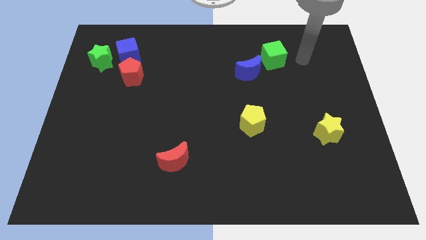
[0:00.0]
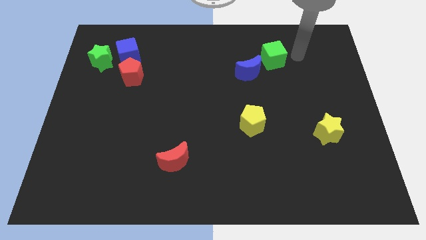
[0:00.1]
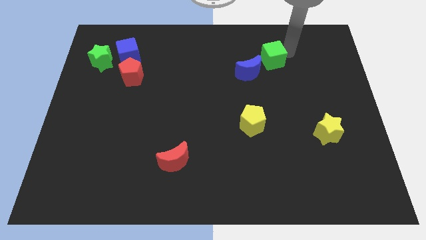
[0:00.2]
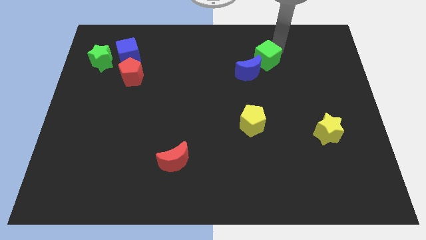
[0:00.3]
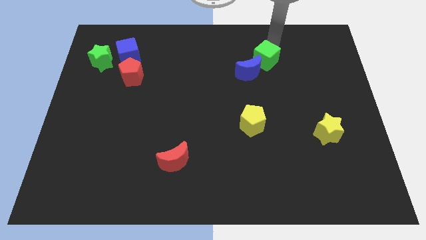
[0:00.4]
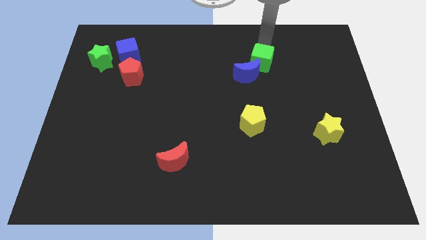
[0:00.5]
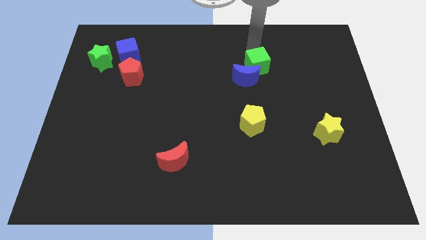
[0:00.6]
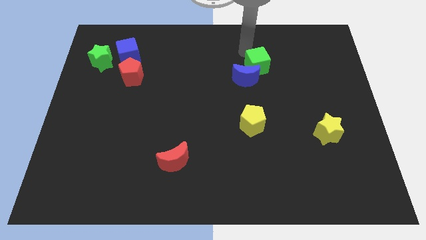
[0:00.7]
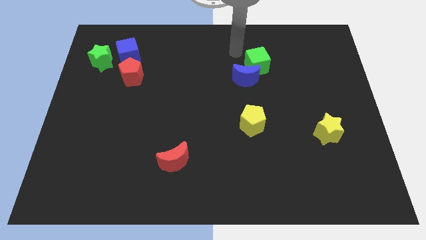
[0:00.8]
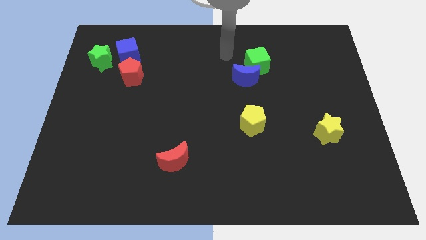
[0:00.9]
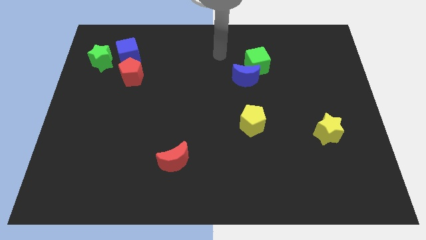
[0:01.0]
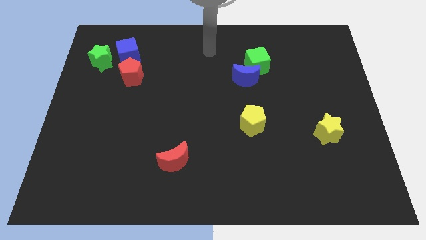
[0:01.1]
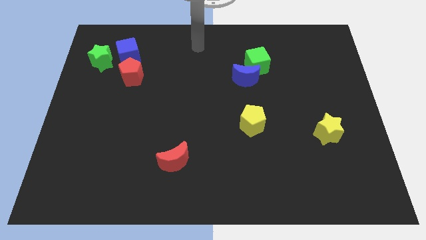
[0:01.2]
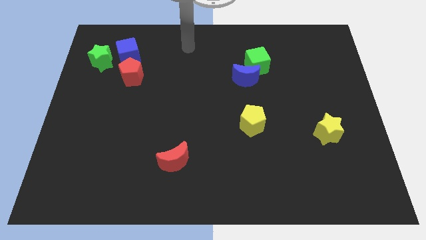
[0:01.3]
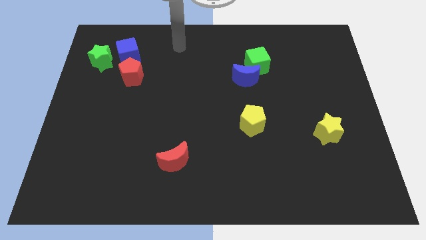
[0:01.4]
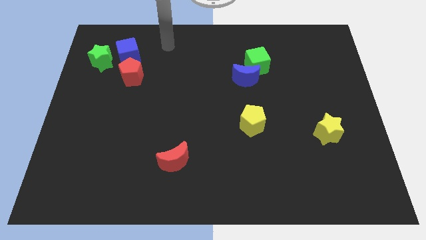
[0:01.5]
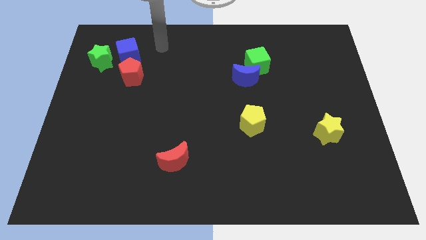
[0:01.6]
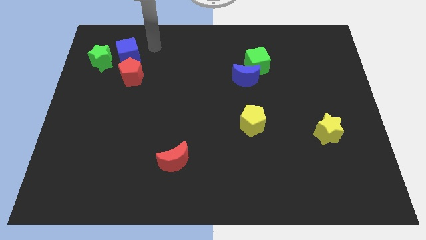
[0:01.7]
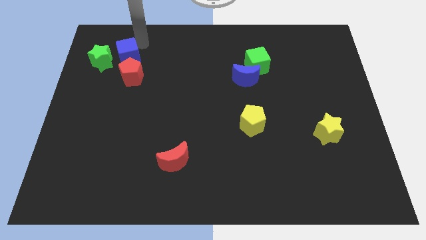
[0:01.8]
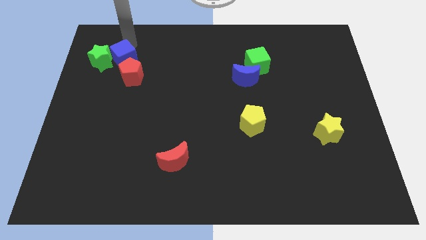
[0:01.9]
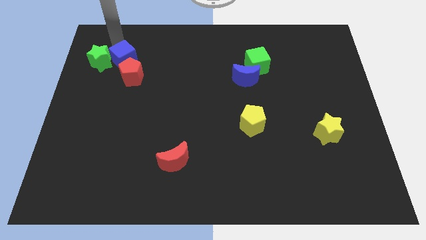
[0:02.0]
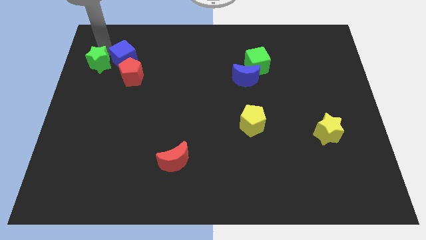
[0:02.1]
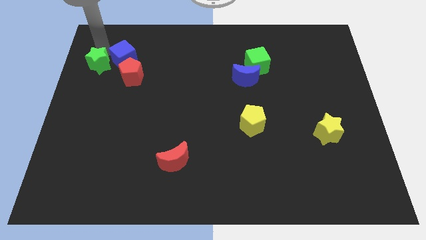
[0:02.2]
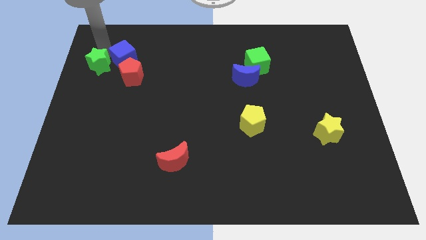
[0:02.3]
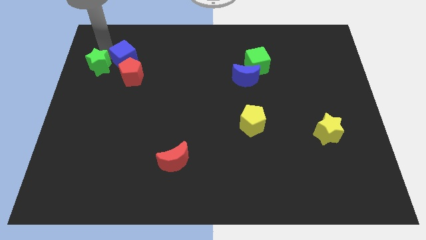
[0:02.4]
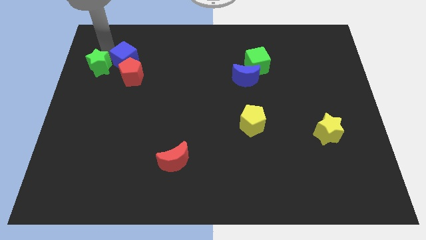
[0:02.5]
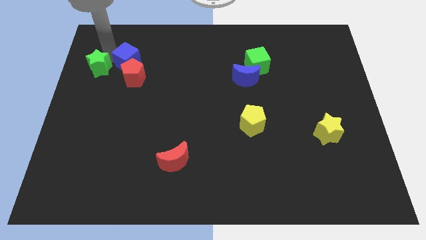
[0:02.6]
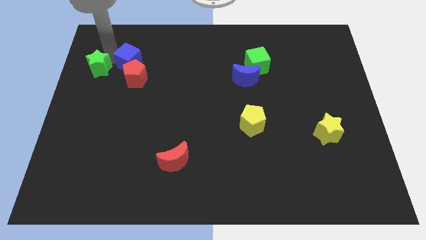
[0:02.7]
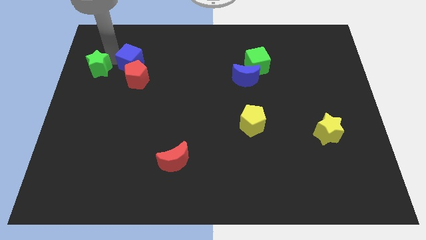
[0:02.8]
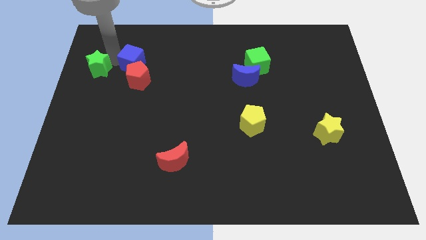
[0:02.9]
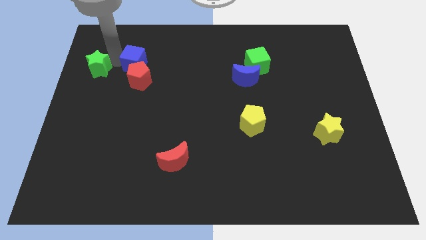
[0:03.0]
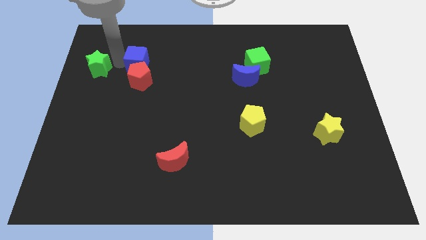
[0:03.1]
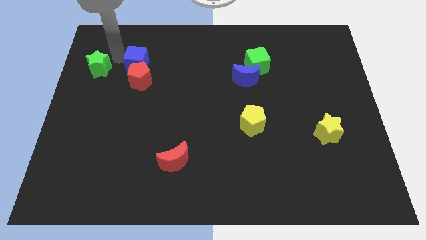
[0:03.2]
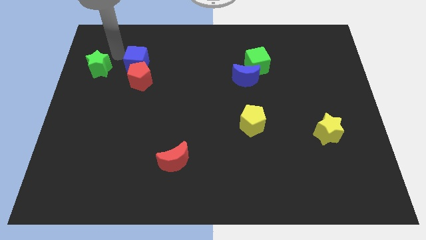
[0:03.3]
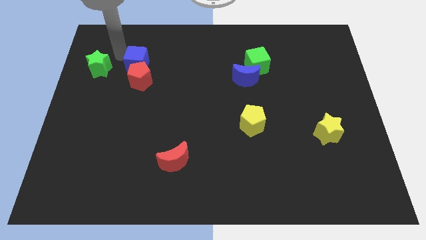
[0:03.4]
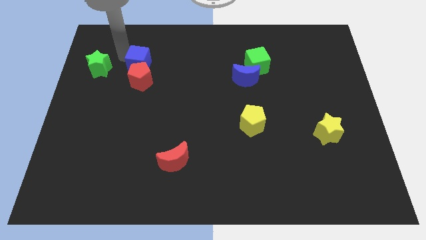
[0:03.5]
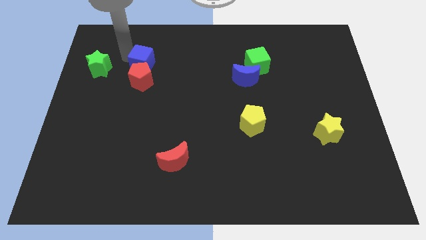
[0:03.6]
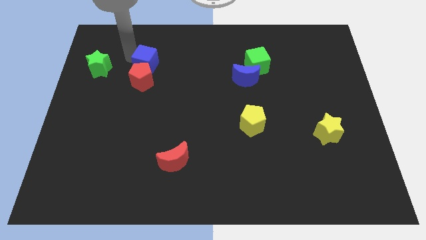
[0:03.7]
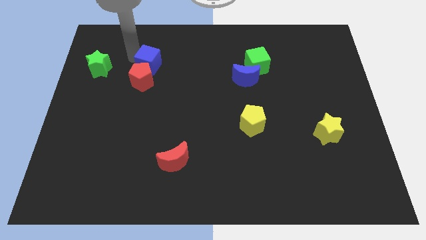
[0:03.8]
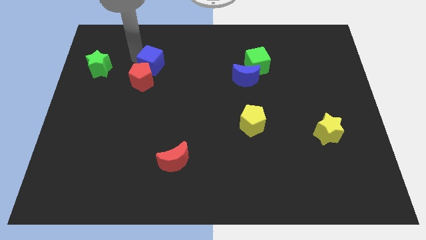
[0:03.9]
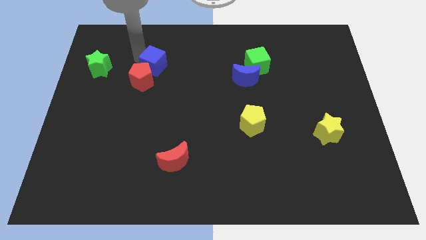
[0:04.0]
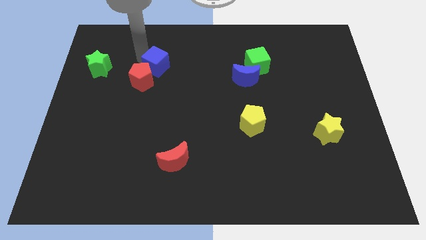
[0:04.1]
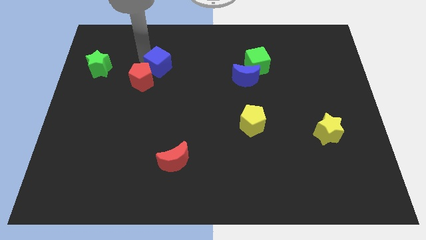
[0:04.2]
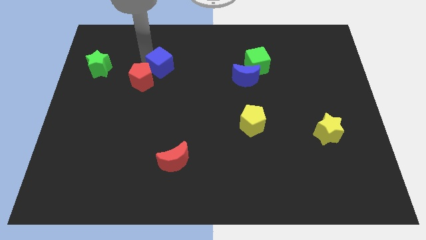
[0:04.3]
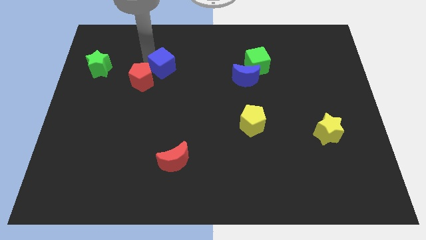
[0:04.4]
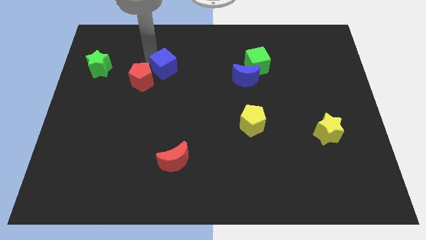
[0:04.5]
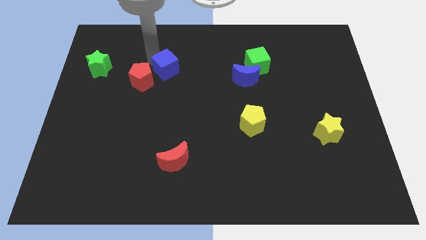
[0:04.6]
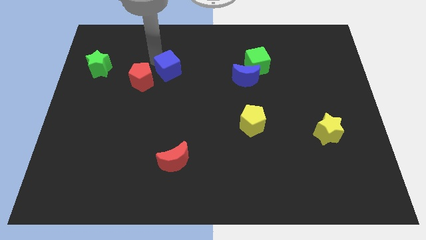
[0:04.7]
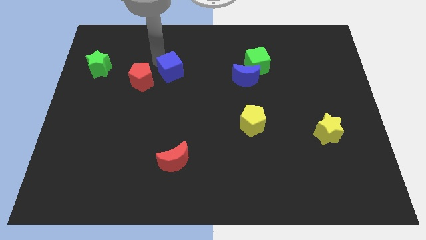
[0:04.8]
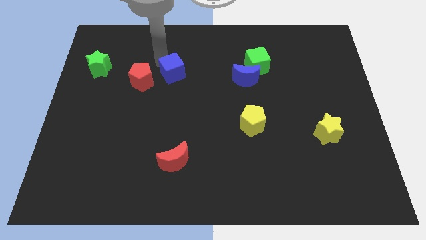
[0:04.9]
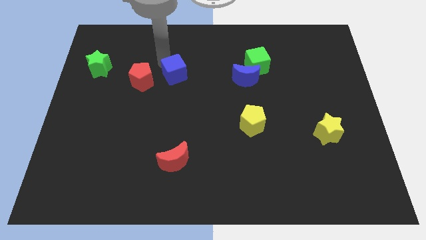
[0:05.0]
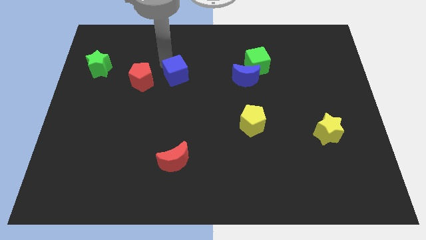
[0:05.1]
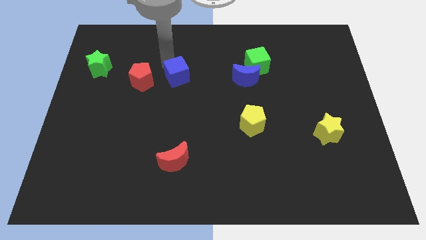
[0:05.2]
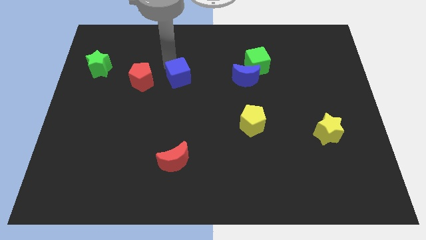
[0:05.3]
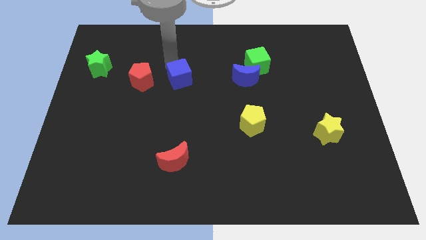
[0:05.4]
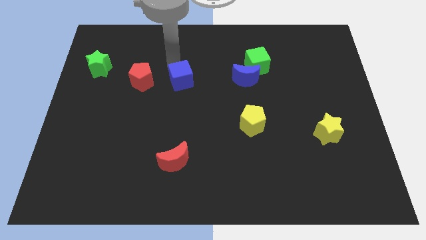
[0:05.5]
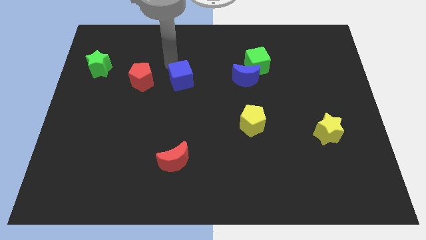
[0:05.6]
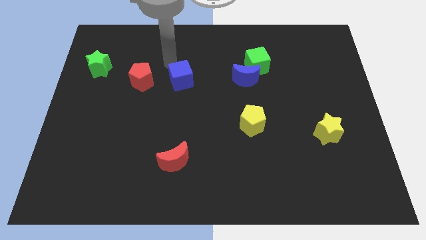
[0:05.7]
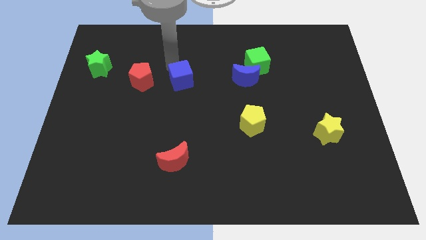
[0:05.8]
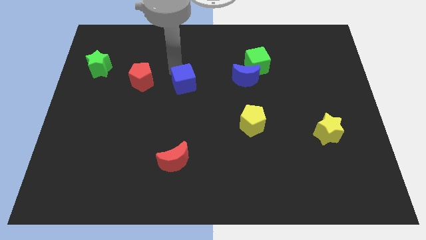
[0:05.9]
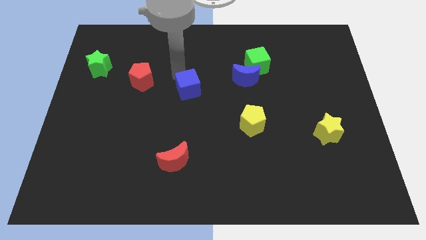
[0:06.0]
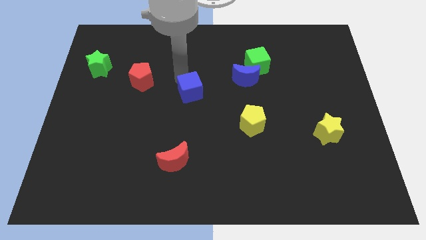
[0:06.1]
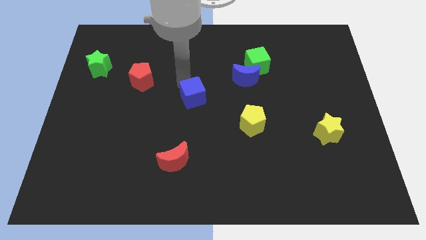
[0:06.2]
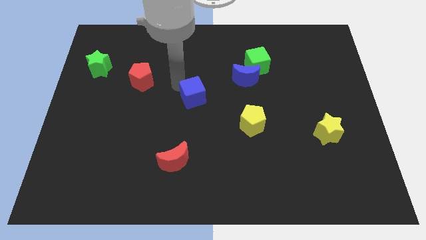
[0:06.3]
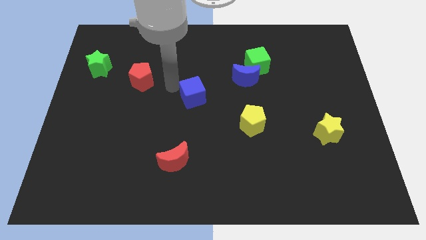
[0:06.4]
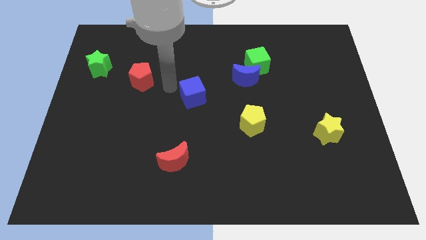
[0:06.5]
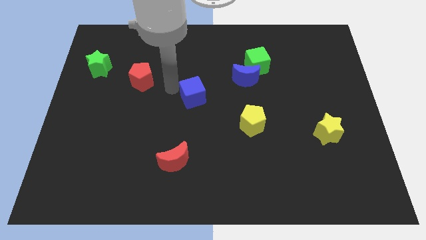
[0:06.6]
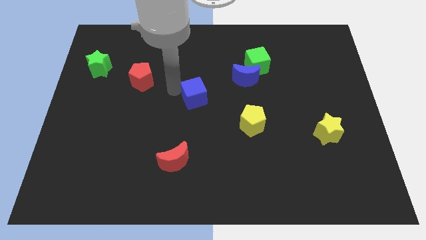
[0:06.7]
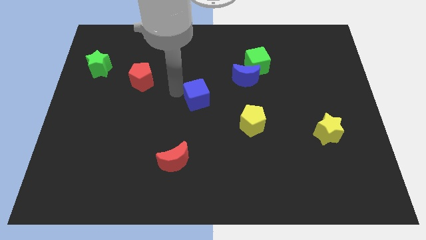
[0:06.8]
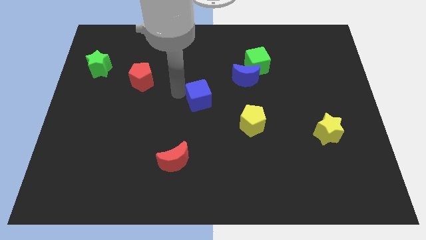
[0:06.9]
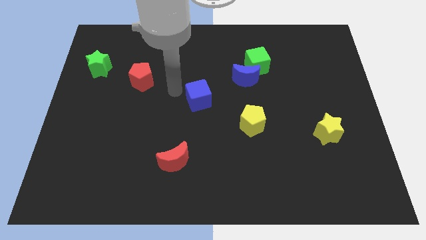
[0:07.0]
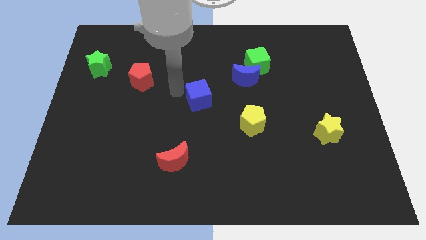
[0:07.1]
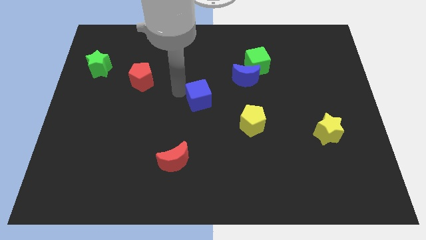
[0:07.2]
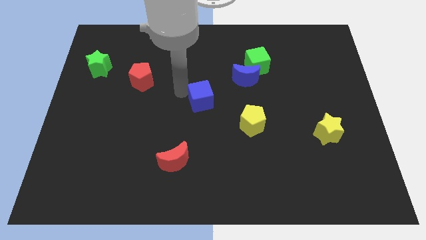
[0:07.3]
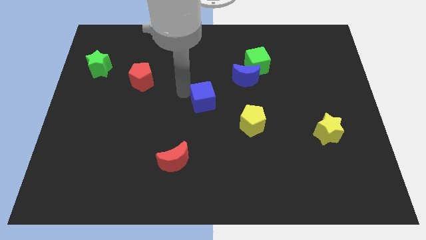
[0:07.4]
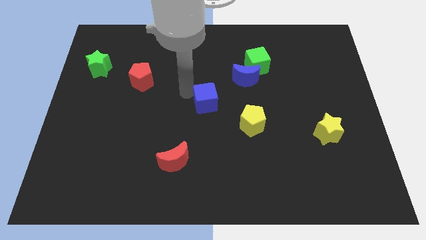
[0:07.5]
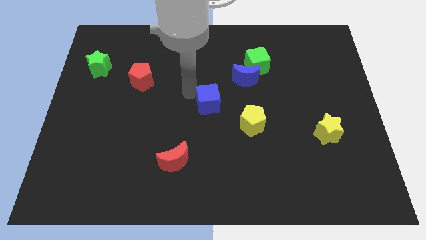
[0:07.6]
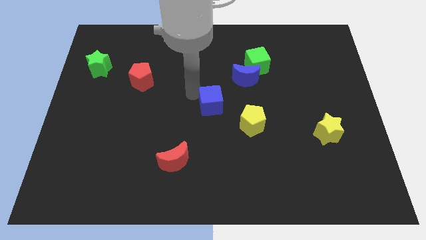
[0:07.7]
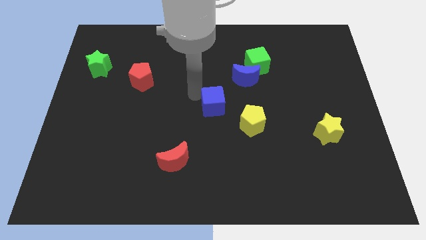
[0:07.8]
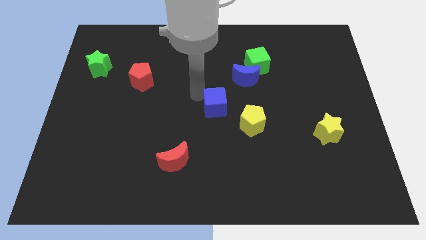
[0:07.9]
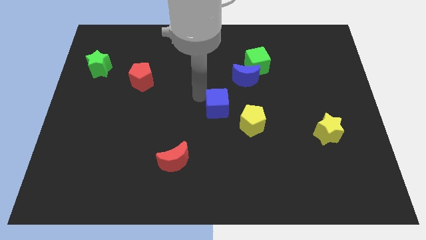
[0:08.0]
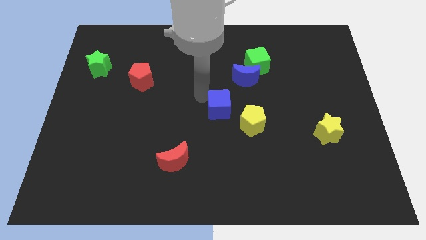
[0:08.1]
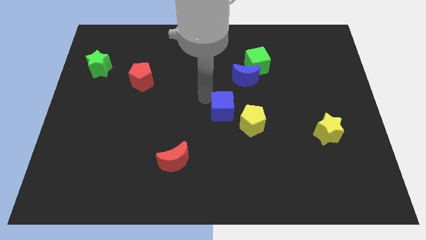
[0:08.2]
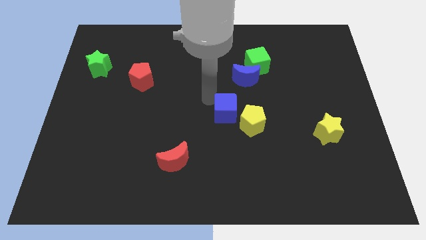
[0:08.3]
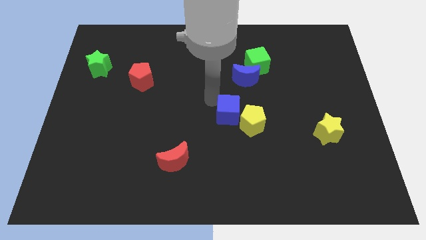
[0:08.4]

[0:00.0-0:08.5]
put the blue cube next to the yellow pentagon
